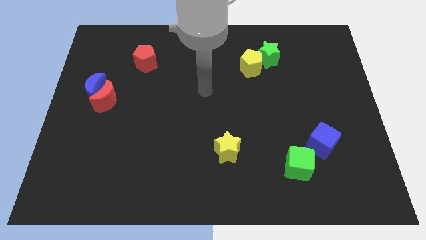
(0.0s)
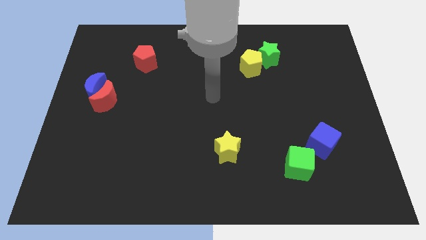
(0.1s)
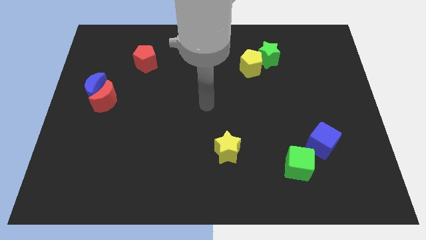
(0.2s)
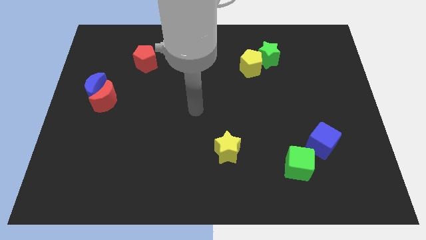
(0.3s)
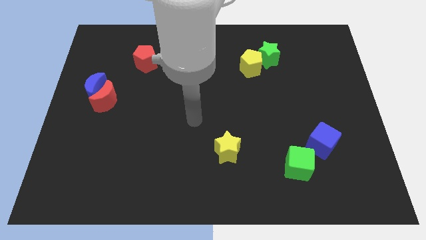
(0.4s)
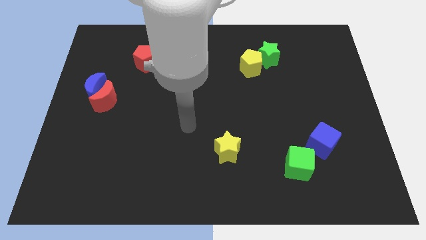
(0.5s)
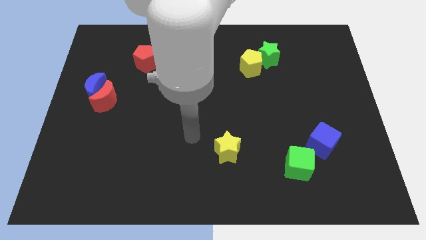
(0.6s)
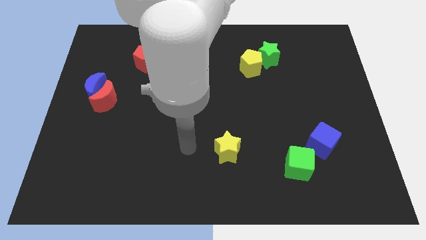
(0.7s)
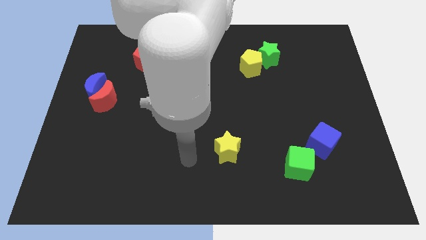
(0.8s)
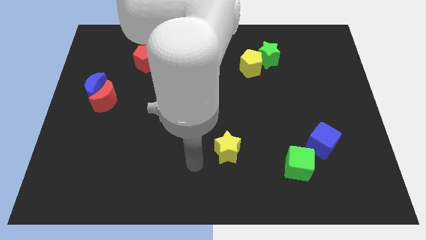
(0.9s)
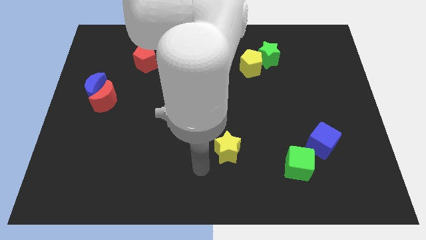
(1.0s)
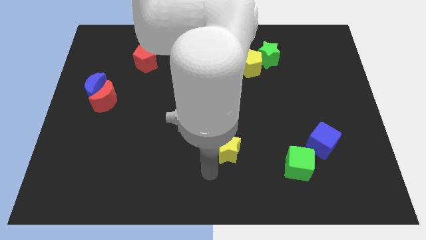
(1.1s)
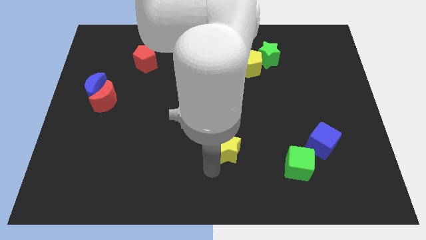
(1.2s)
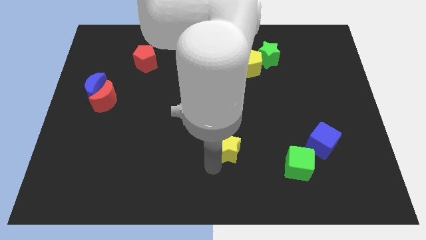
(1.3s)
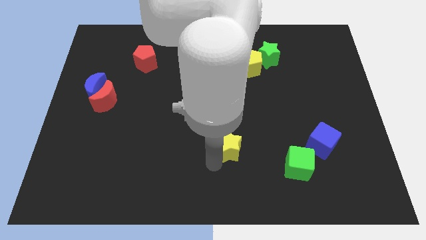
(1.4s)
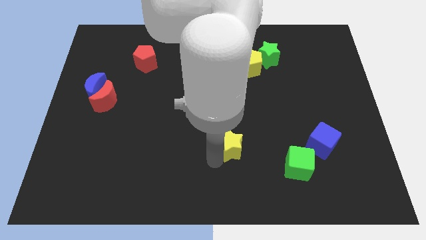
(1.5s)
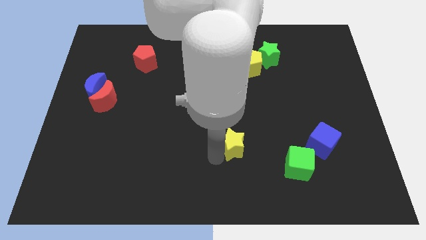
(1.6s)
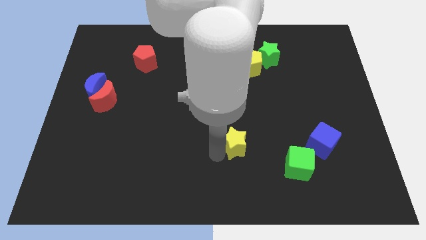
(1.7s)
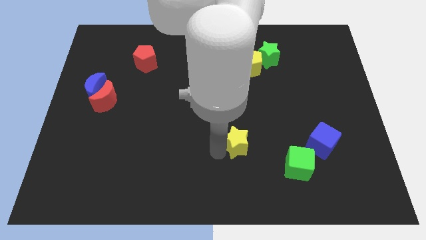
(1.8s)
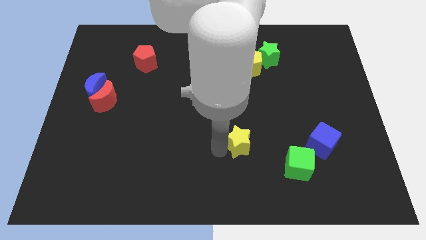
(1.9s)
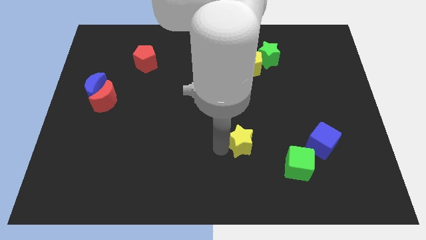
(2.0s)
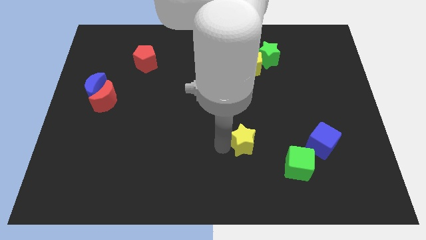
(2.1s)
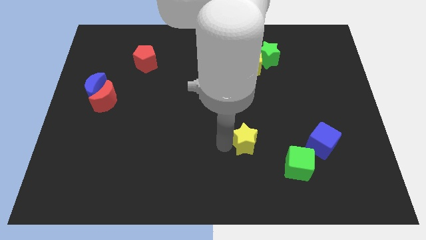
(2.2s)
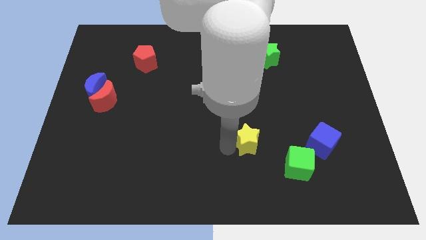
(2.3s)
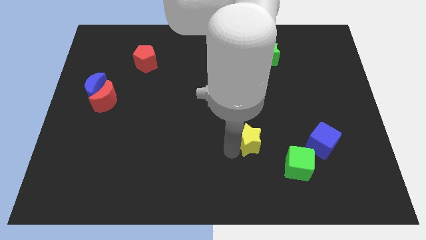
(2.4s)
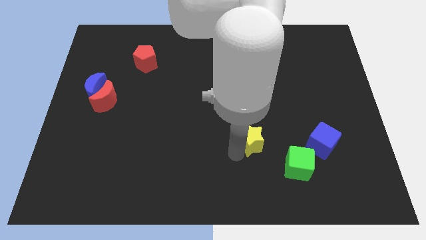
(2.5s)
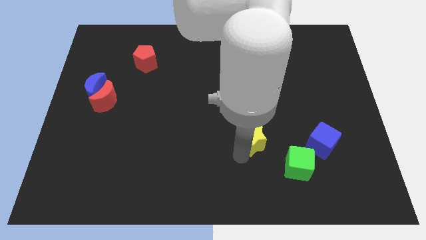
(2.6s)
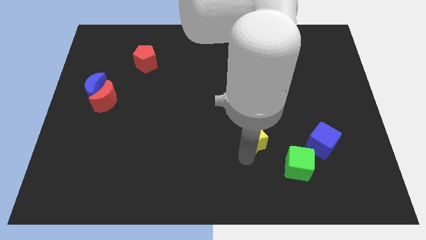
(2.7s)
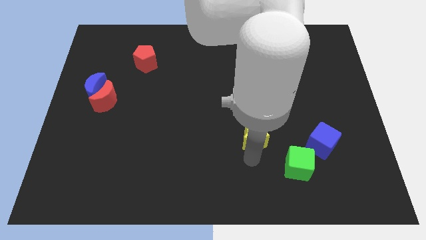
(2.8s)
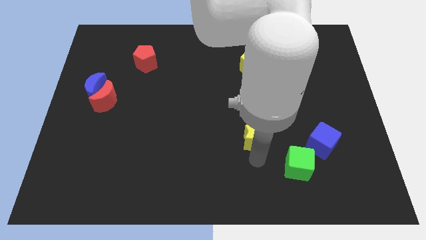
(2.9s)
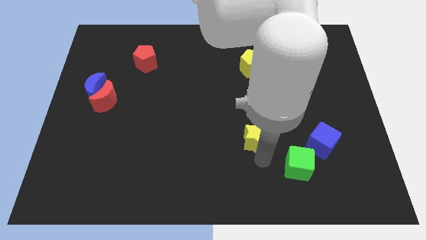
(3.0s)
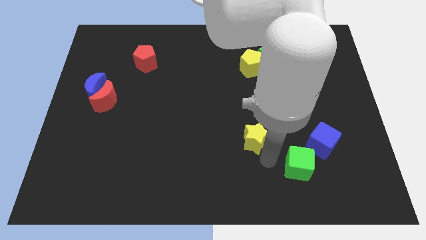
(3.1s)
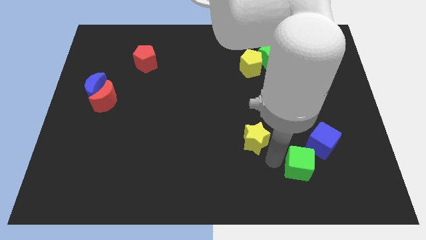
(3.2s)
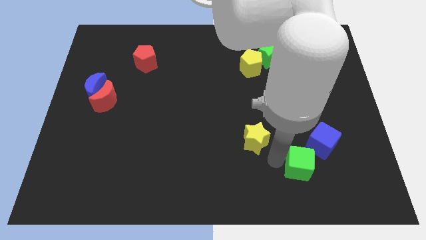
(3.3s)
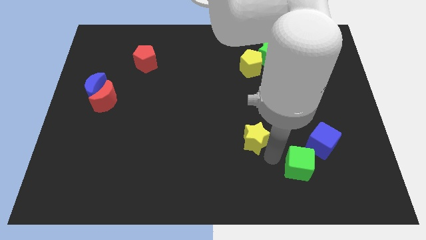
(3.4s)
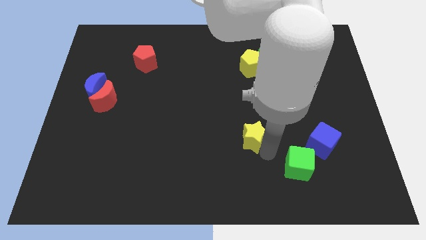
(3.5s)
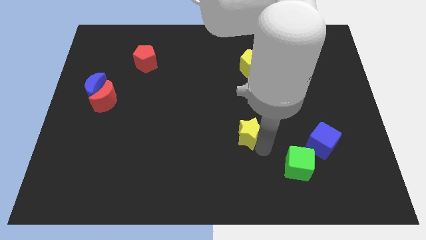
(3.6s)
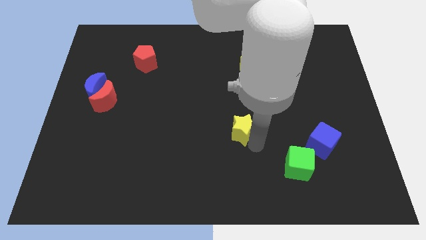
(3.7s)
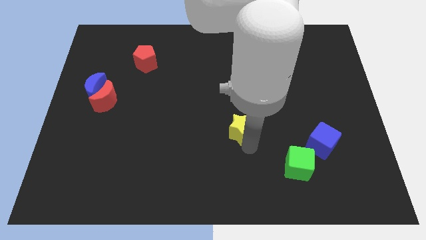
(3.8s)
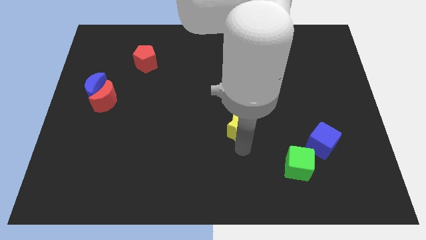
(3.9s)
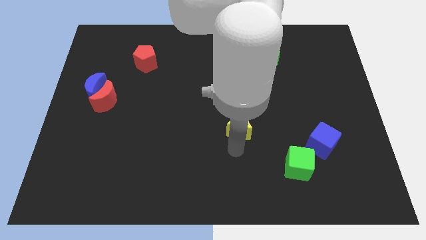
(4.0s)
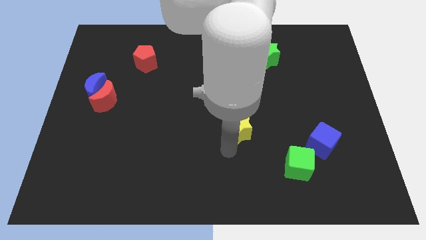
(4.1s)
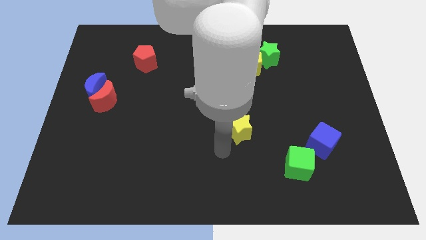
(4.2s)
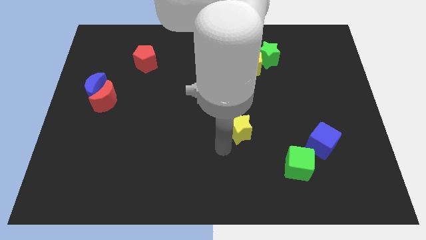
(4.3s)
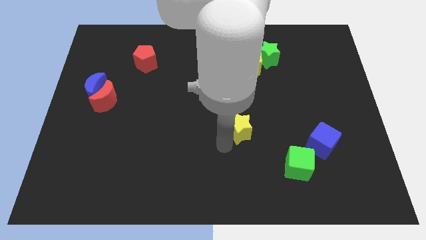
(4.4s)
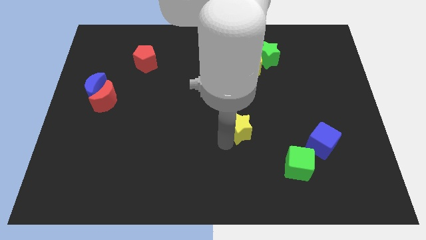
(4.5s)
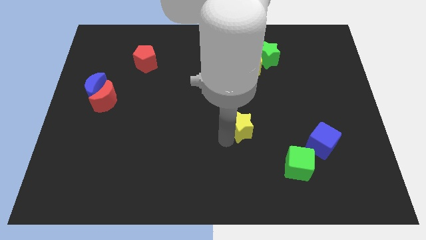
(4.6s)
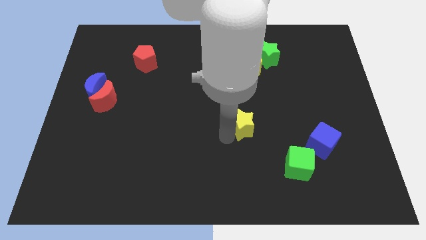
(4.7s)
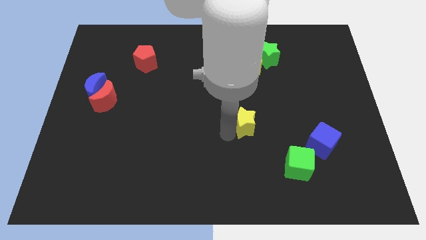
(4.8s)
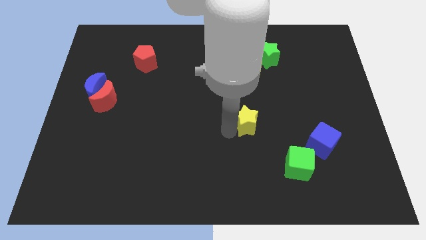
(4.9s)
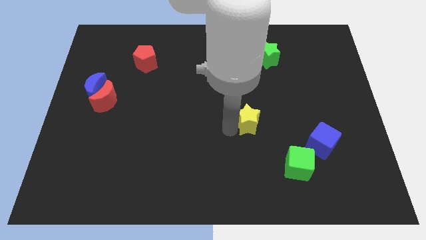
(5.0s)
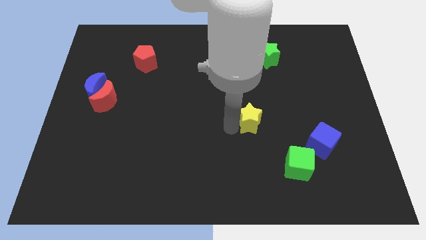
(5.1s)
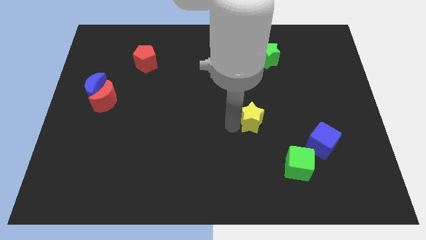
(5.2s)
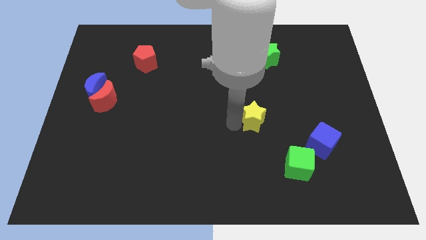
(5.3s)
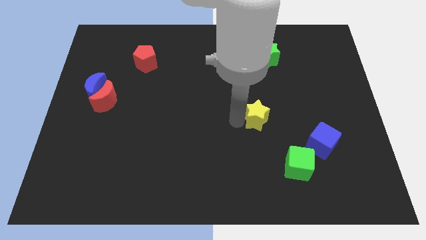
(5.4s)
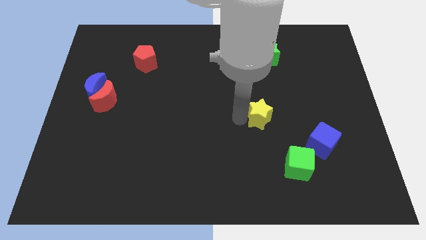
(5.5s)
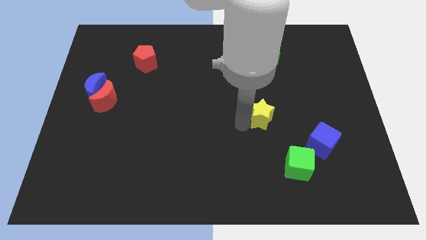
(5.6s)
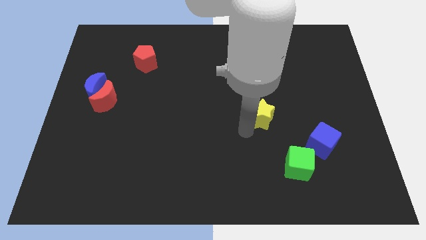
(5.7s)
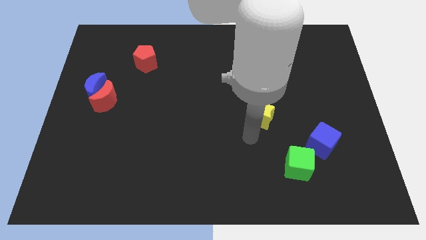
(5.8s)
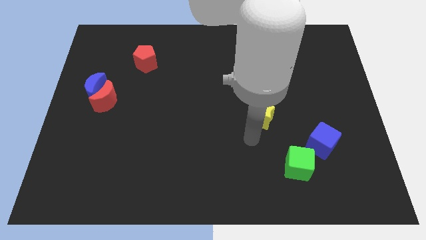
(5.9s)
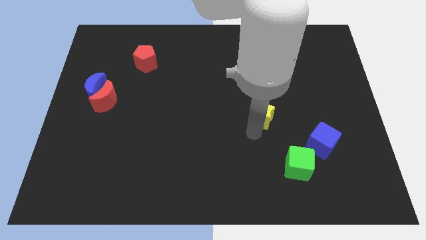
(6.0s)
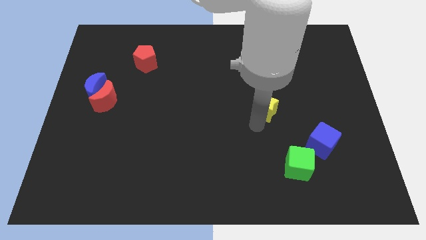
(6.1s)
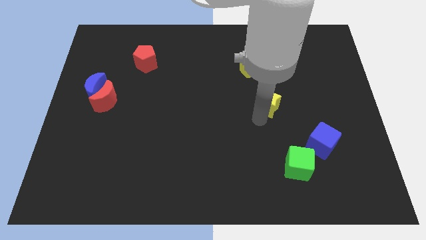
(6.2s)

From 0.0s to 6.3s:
push the yellow star to the bottom side of the green star
